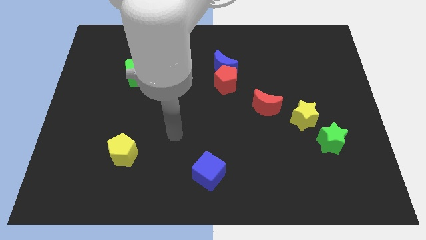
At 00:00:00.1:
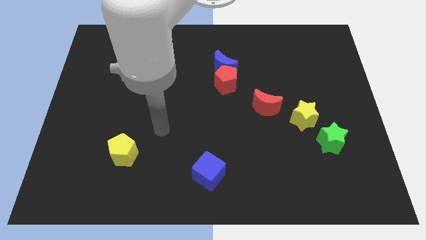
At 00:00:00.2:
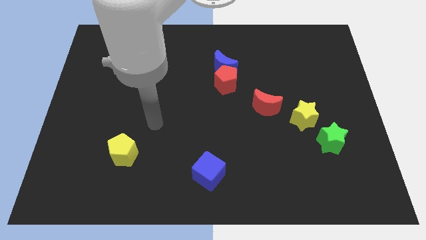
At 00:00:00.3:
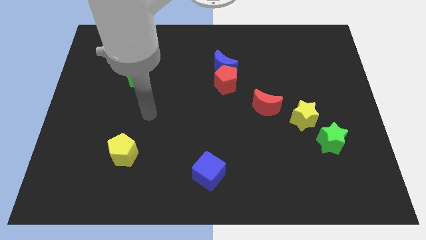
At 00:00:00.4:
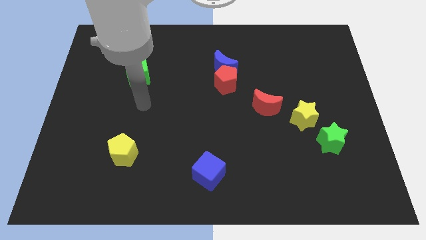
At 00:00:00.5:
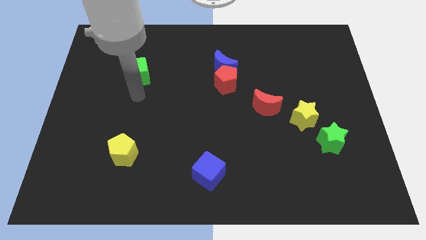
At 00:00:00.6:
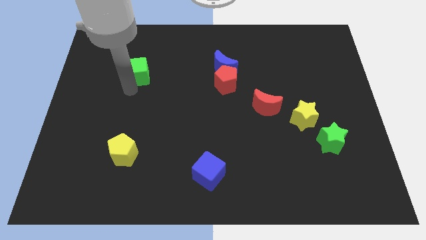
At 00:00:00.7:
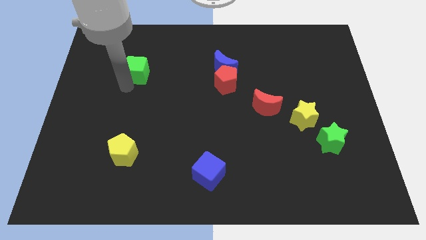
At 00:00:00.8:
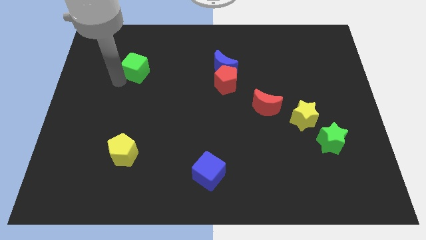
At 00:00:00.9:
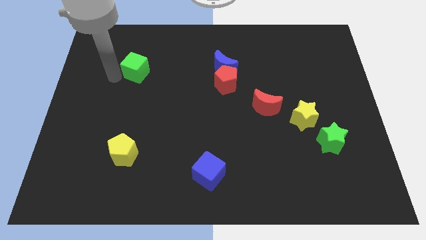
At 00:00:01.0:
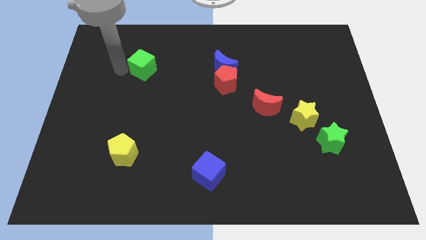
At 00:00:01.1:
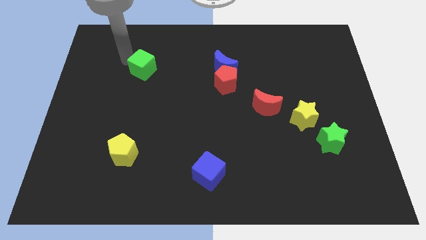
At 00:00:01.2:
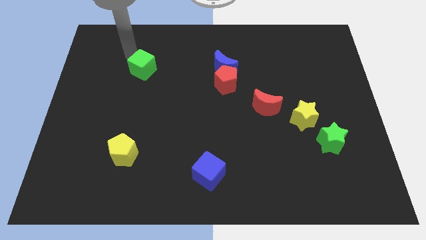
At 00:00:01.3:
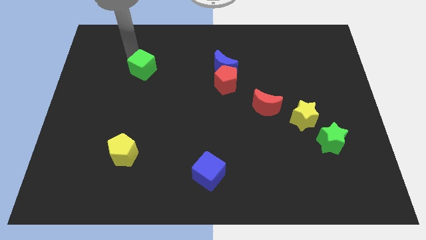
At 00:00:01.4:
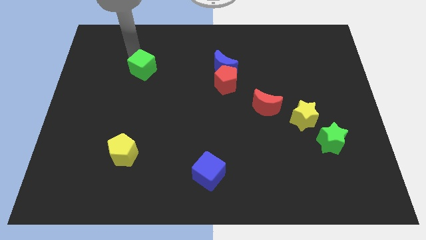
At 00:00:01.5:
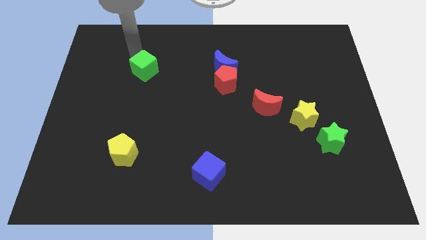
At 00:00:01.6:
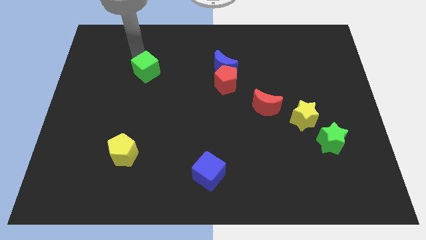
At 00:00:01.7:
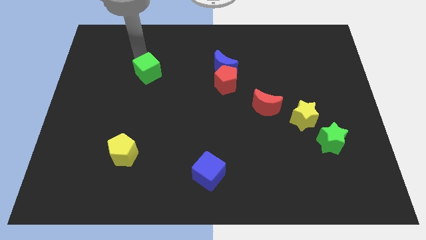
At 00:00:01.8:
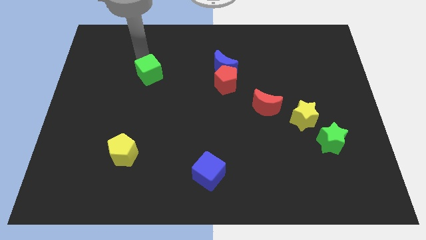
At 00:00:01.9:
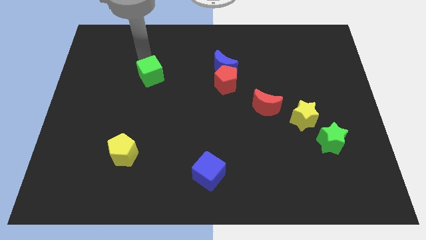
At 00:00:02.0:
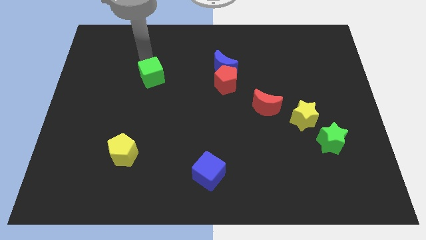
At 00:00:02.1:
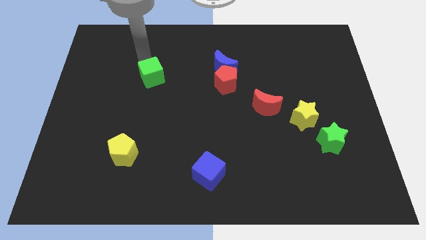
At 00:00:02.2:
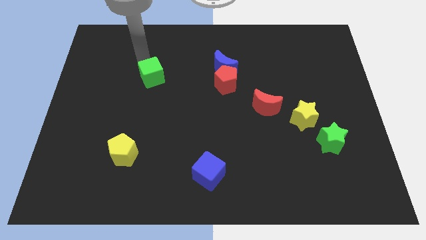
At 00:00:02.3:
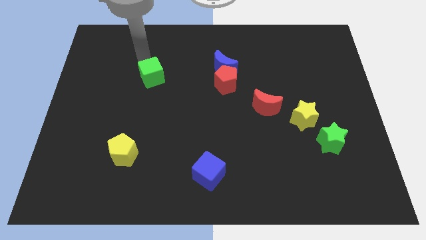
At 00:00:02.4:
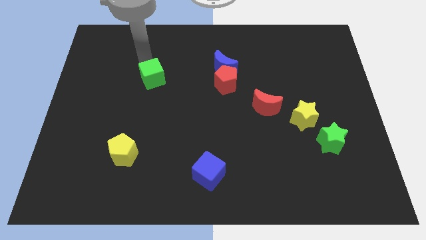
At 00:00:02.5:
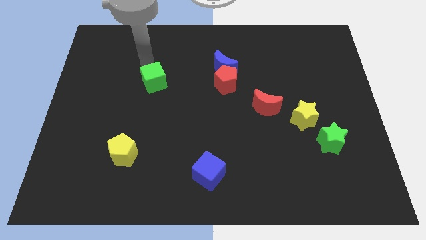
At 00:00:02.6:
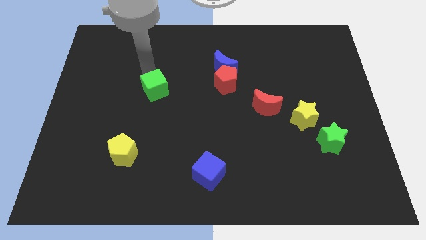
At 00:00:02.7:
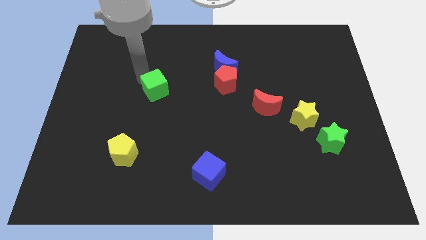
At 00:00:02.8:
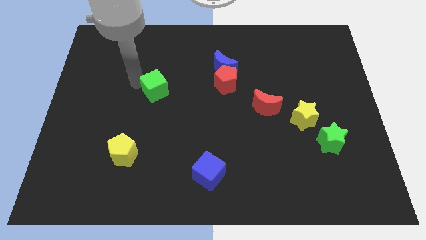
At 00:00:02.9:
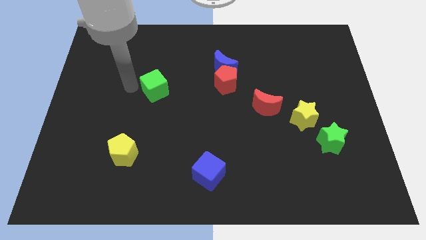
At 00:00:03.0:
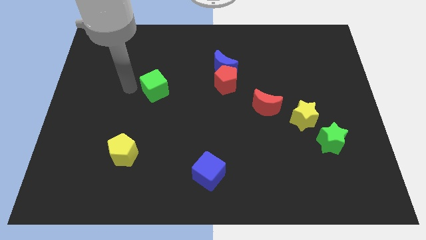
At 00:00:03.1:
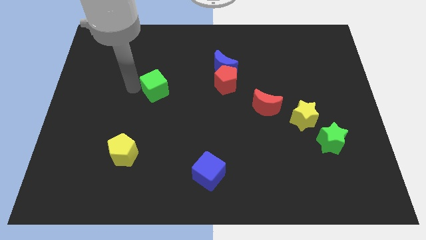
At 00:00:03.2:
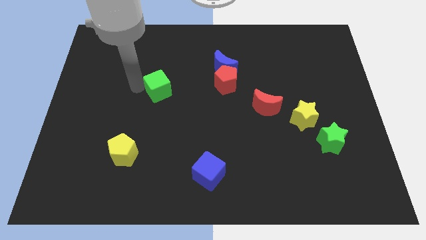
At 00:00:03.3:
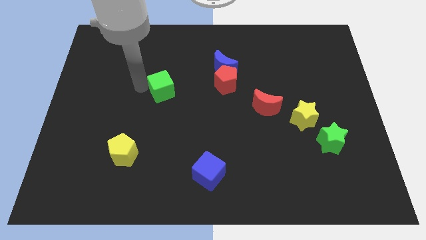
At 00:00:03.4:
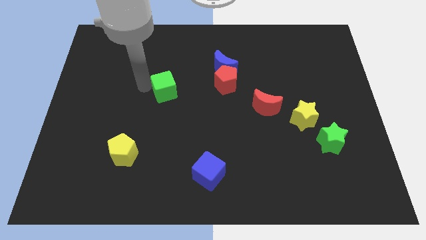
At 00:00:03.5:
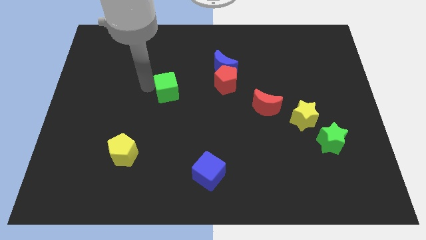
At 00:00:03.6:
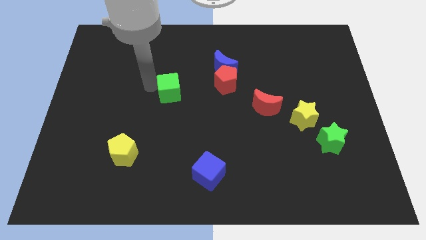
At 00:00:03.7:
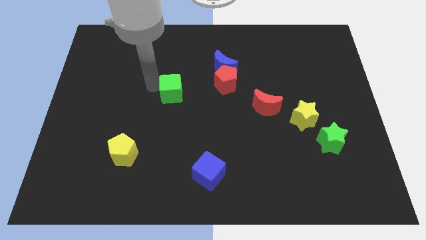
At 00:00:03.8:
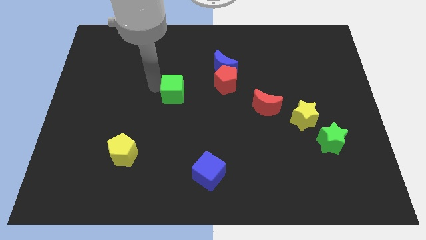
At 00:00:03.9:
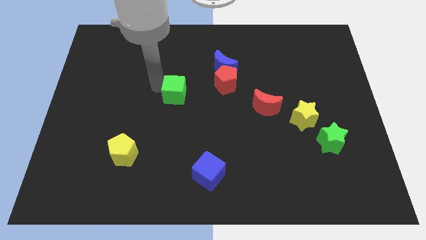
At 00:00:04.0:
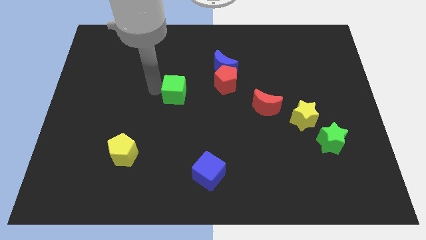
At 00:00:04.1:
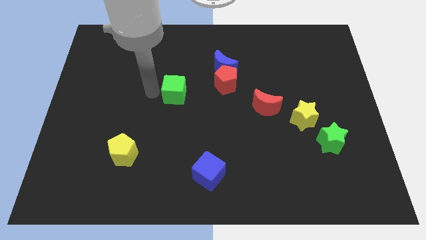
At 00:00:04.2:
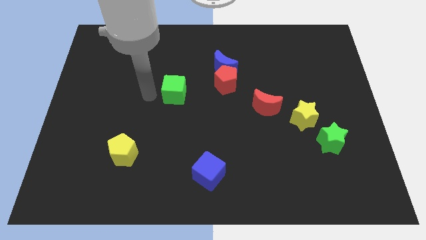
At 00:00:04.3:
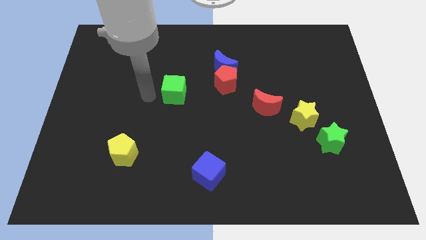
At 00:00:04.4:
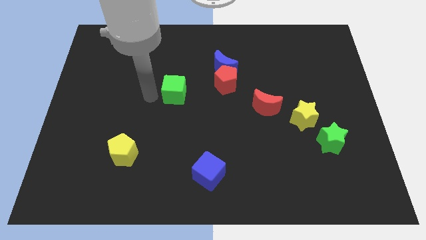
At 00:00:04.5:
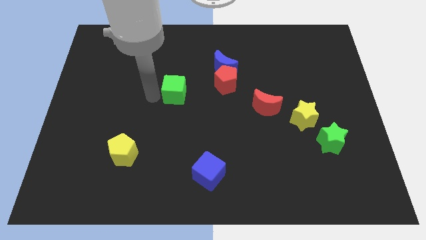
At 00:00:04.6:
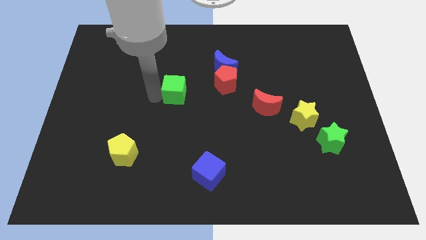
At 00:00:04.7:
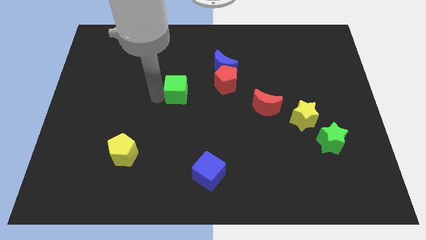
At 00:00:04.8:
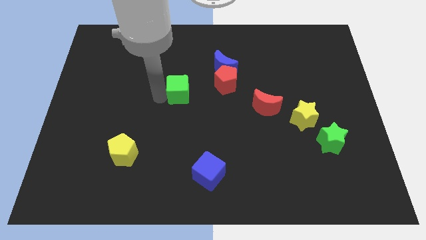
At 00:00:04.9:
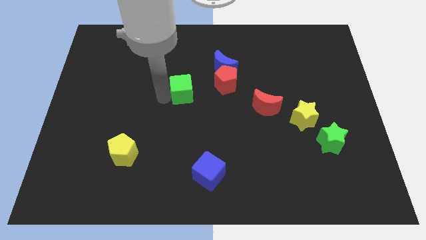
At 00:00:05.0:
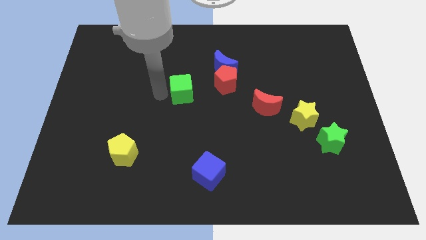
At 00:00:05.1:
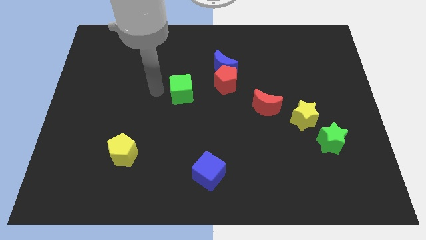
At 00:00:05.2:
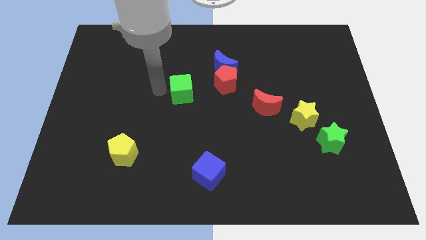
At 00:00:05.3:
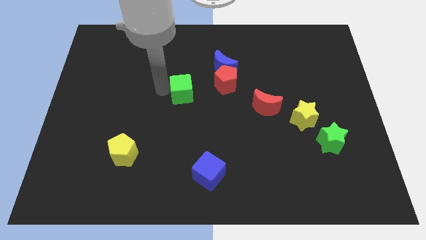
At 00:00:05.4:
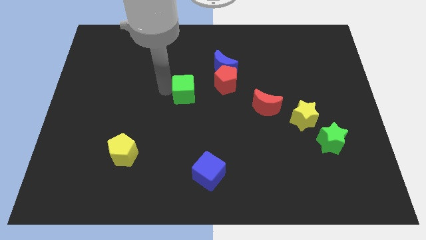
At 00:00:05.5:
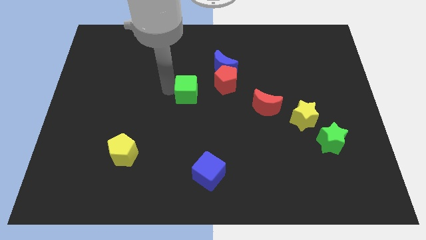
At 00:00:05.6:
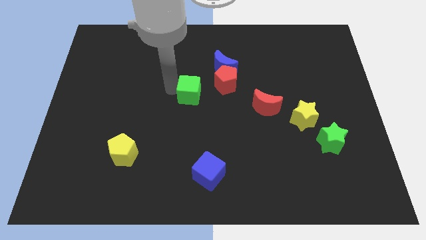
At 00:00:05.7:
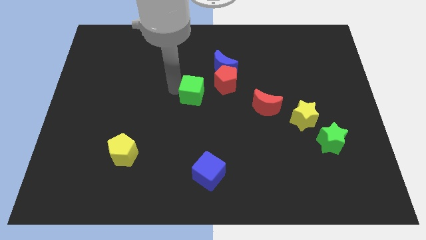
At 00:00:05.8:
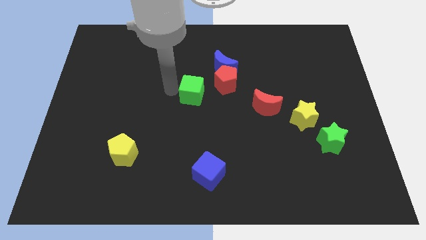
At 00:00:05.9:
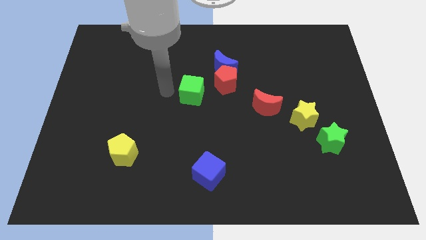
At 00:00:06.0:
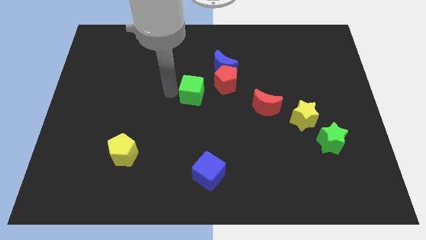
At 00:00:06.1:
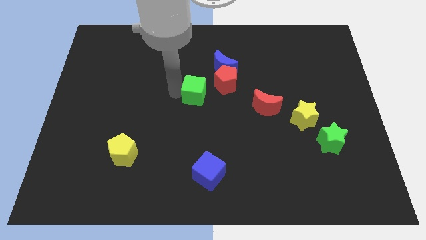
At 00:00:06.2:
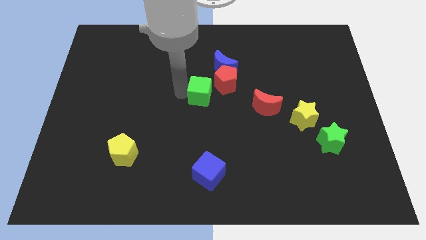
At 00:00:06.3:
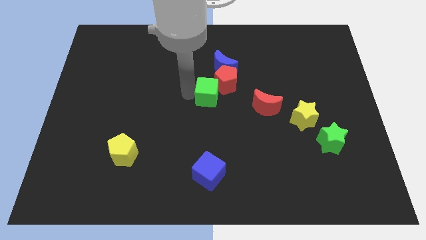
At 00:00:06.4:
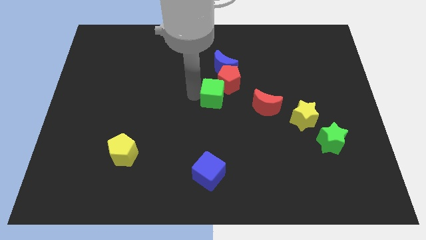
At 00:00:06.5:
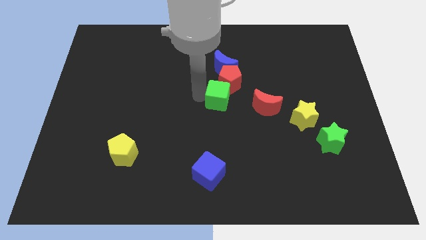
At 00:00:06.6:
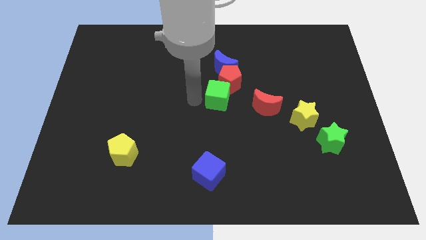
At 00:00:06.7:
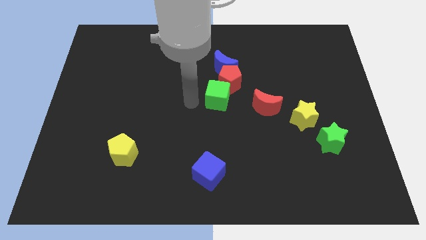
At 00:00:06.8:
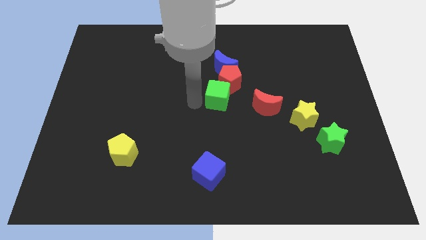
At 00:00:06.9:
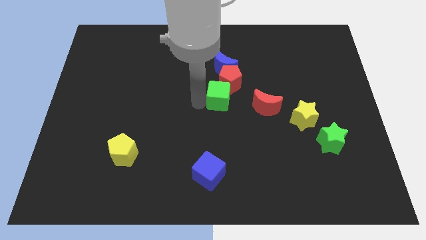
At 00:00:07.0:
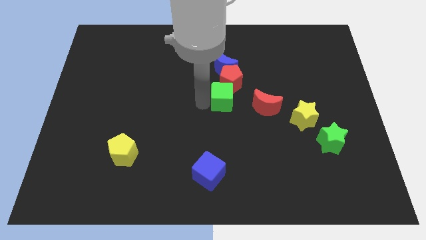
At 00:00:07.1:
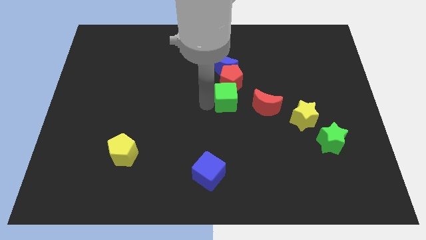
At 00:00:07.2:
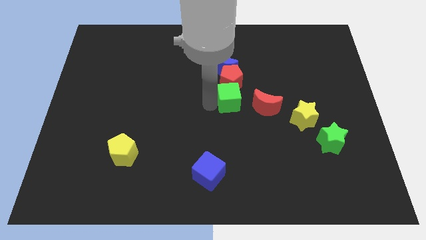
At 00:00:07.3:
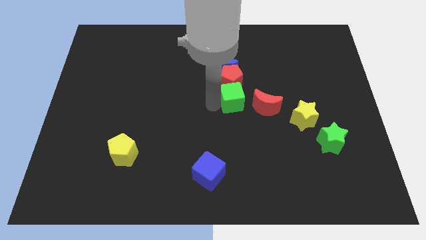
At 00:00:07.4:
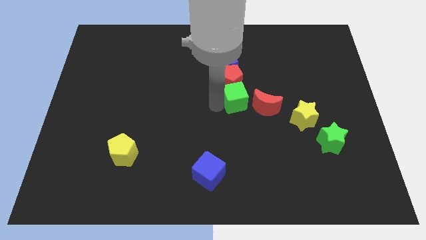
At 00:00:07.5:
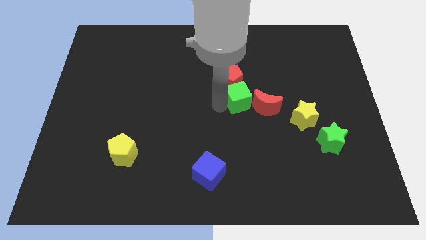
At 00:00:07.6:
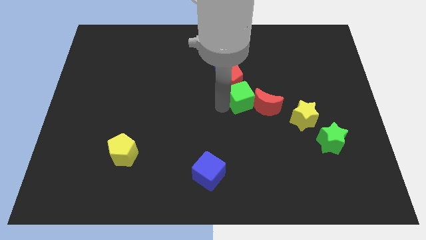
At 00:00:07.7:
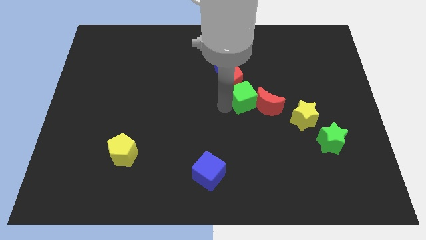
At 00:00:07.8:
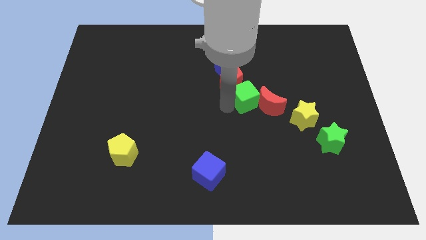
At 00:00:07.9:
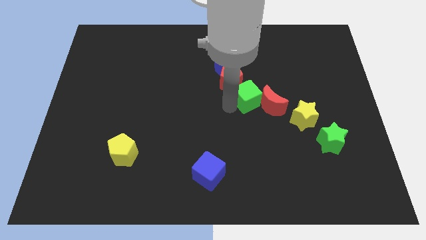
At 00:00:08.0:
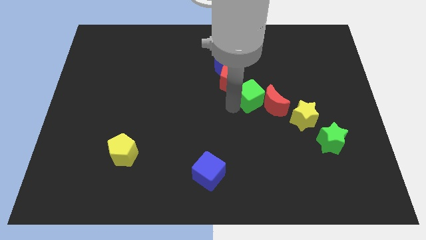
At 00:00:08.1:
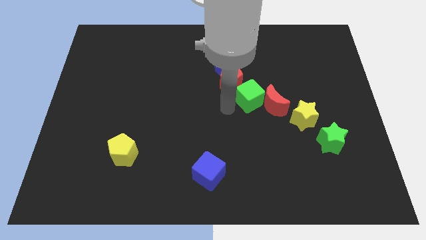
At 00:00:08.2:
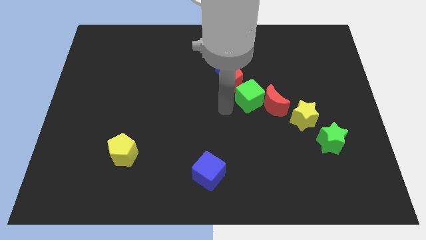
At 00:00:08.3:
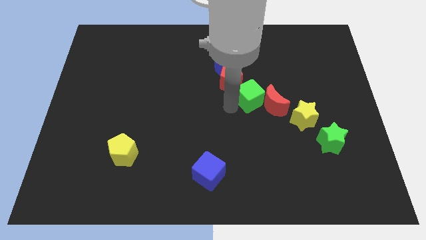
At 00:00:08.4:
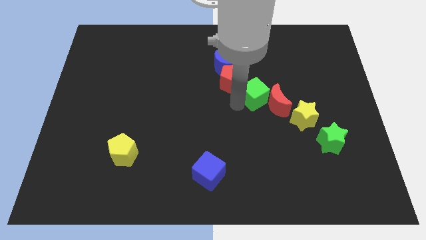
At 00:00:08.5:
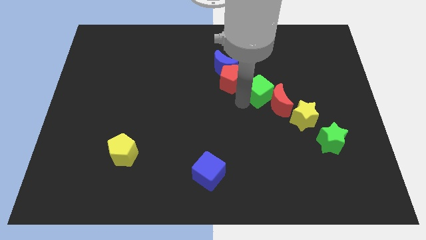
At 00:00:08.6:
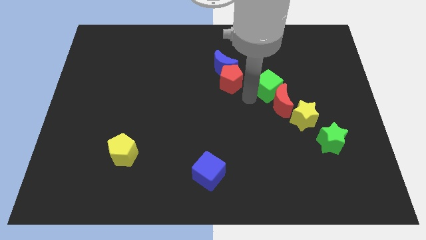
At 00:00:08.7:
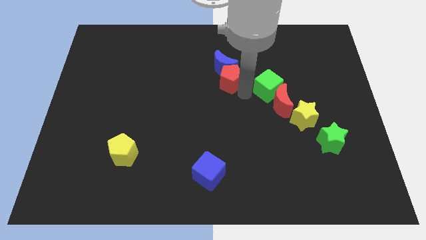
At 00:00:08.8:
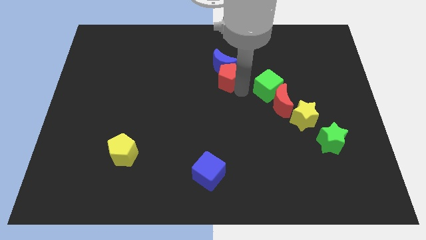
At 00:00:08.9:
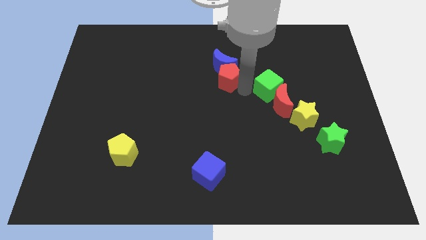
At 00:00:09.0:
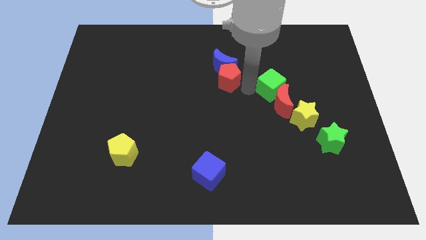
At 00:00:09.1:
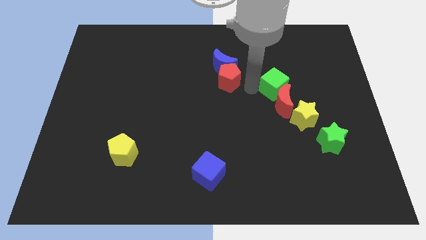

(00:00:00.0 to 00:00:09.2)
slide the green cube to the top right of the red moon
